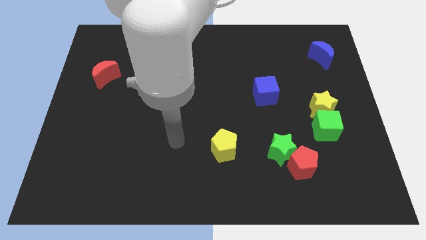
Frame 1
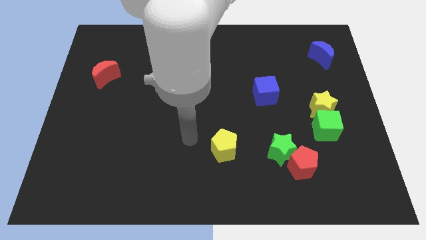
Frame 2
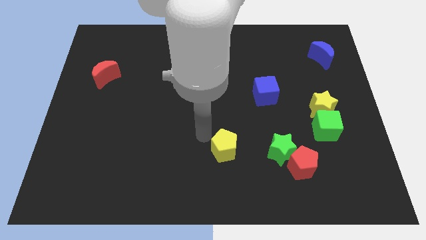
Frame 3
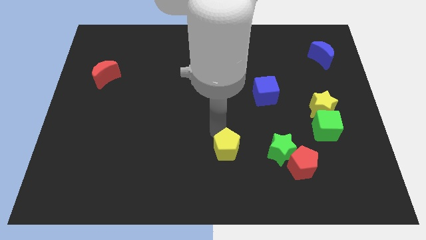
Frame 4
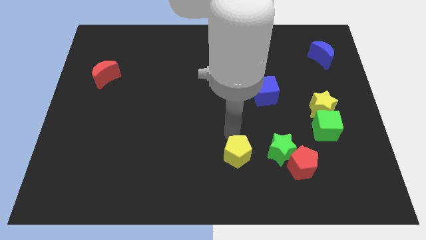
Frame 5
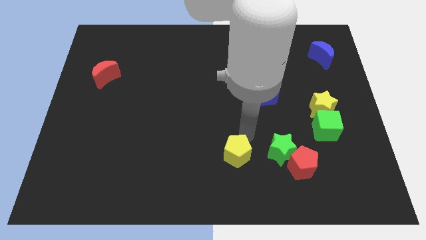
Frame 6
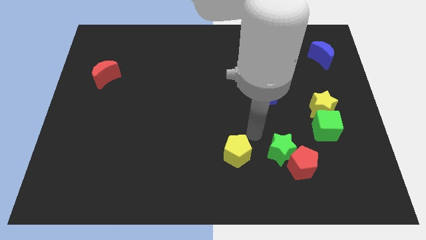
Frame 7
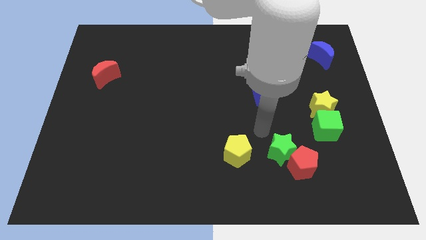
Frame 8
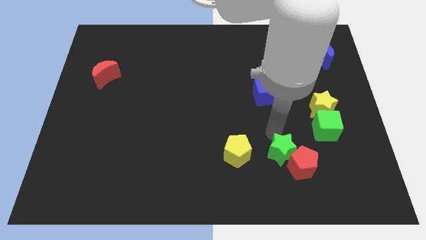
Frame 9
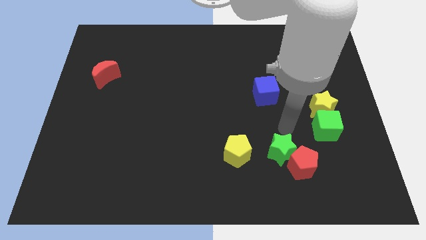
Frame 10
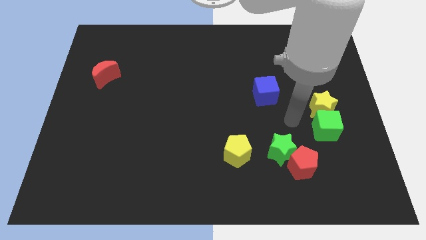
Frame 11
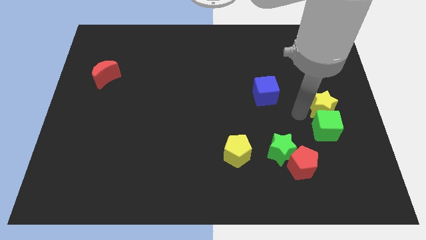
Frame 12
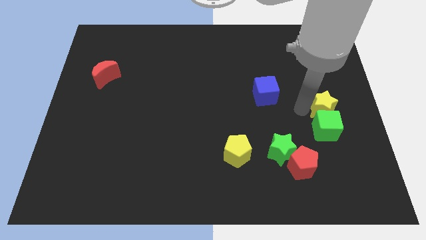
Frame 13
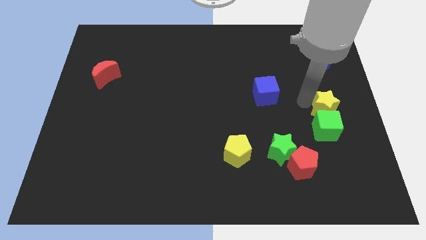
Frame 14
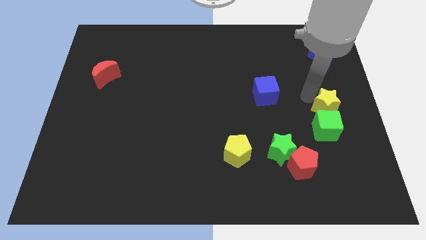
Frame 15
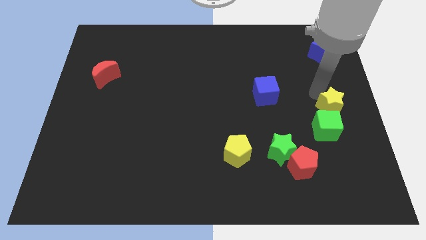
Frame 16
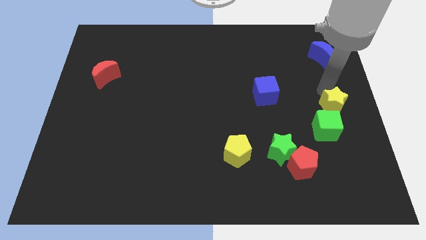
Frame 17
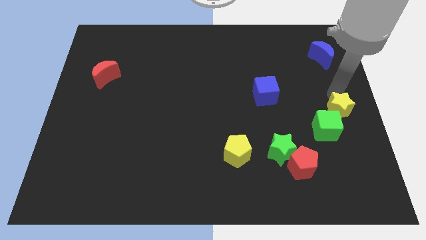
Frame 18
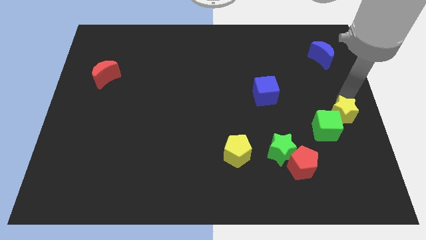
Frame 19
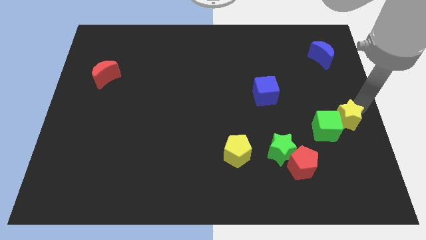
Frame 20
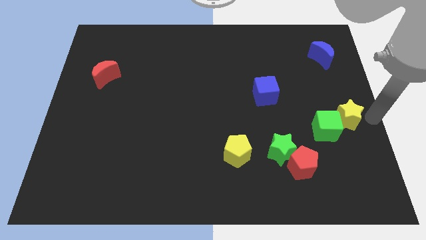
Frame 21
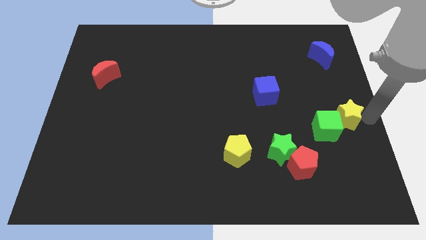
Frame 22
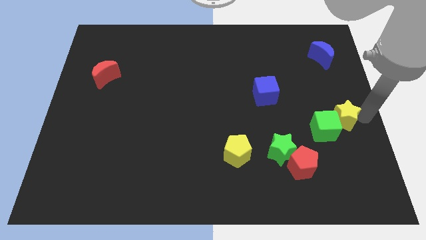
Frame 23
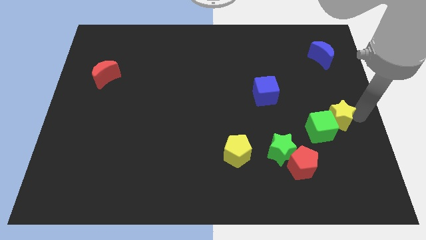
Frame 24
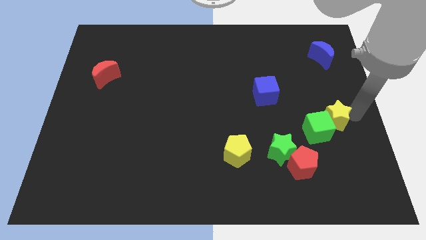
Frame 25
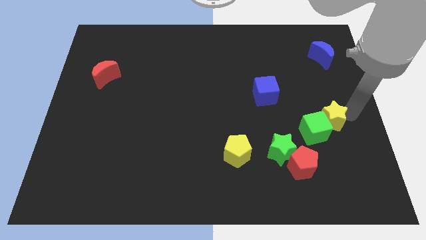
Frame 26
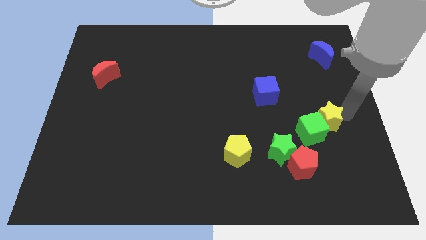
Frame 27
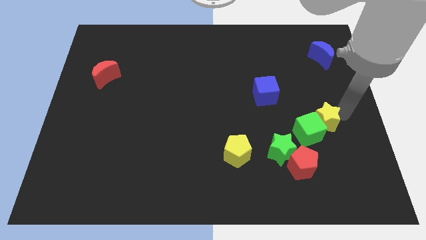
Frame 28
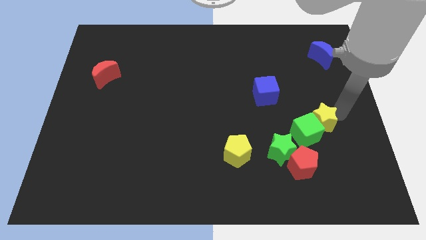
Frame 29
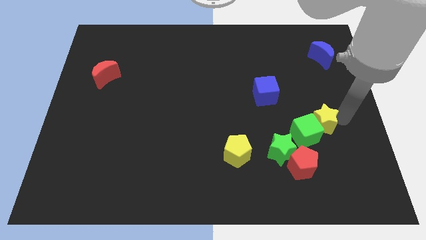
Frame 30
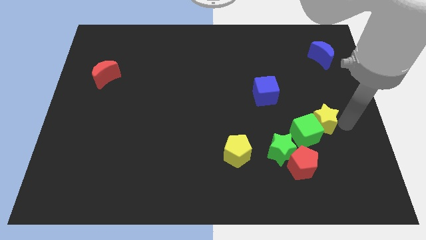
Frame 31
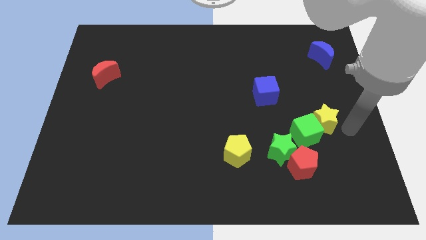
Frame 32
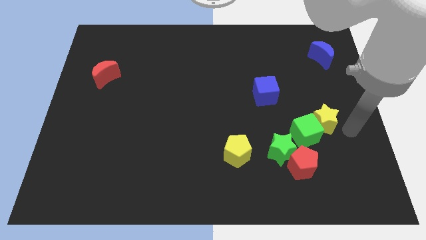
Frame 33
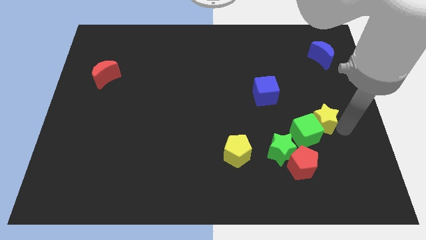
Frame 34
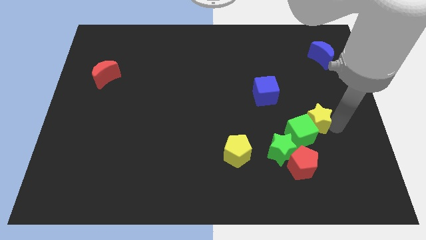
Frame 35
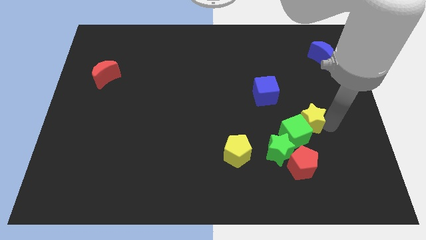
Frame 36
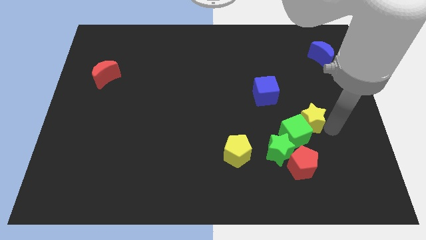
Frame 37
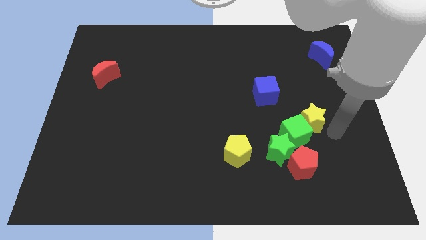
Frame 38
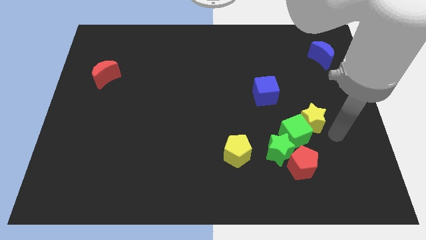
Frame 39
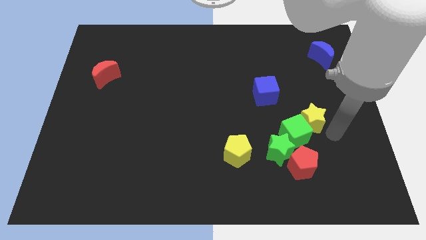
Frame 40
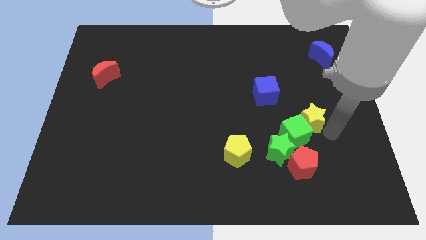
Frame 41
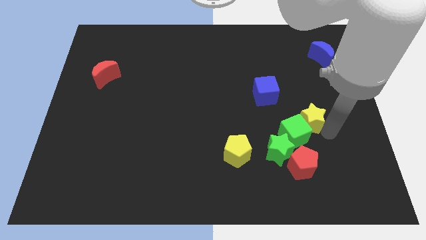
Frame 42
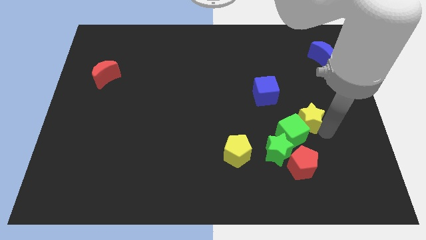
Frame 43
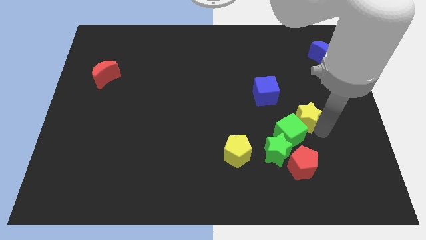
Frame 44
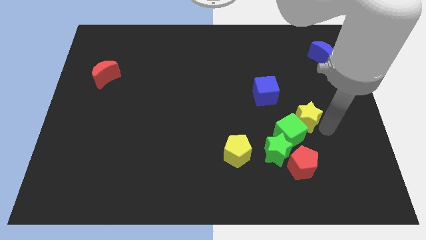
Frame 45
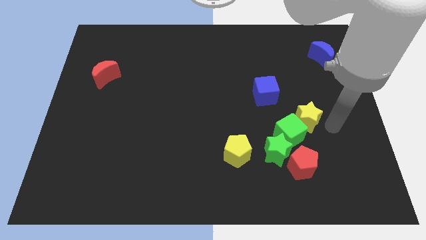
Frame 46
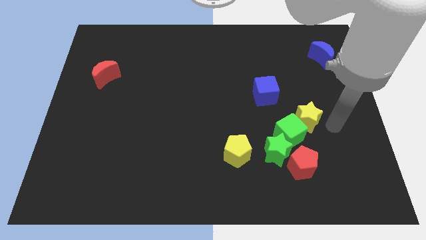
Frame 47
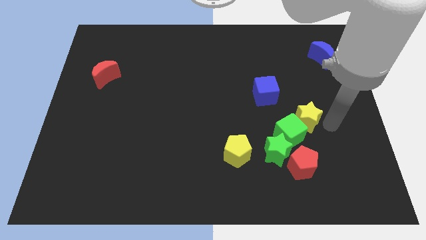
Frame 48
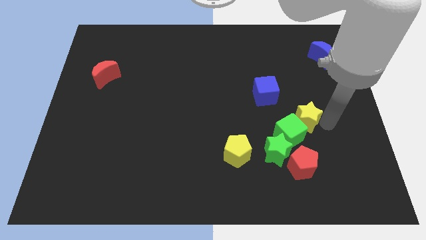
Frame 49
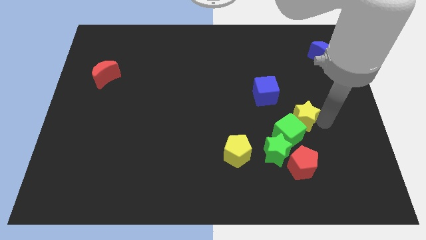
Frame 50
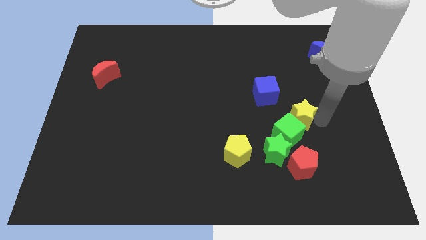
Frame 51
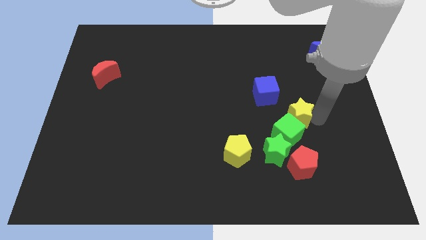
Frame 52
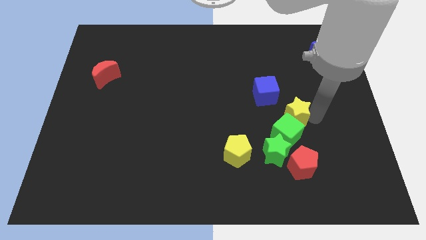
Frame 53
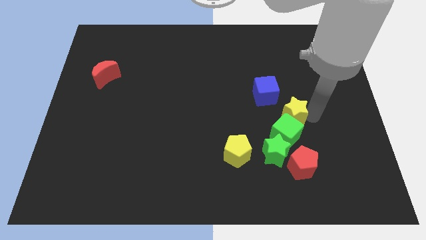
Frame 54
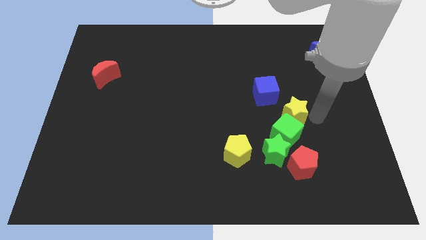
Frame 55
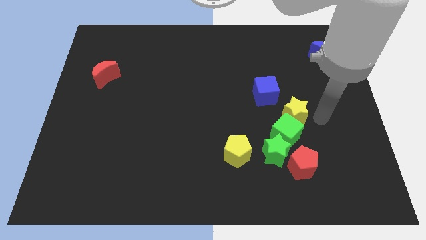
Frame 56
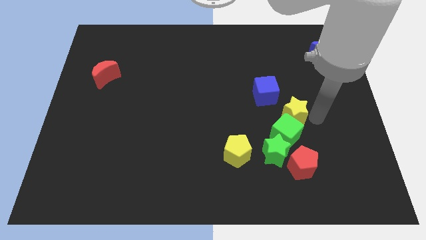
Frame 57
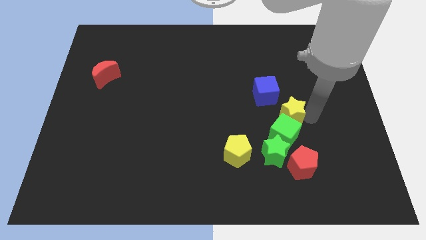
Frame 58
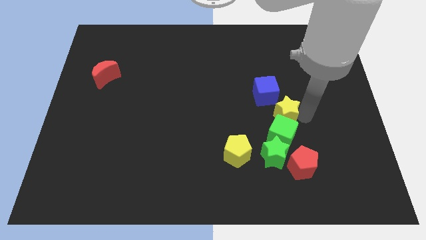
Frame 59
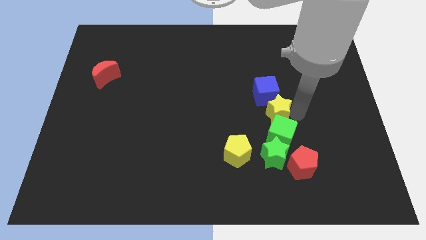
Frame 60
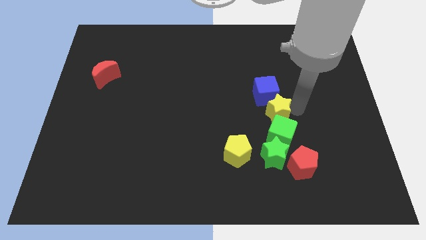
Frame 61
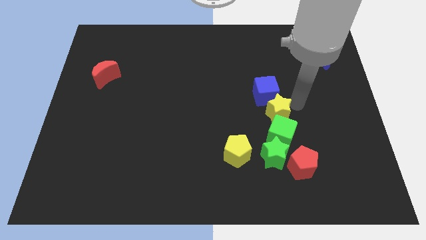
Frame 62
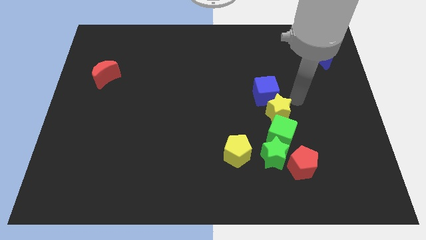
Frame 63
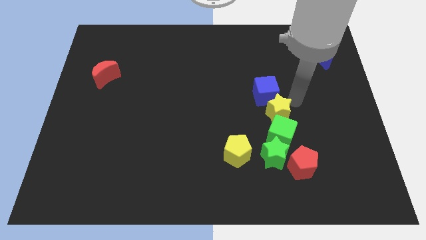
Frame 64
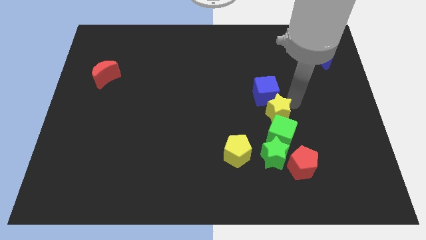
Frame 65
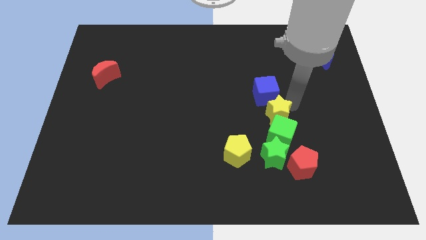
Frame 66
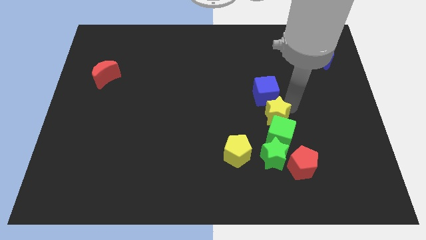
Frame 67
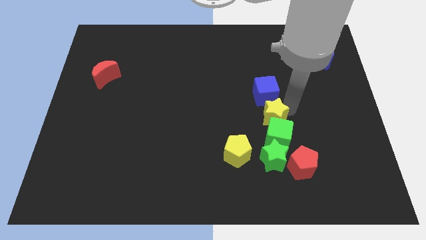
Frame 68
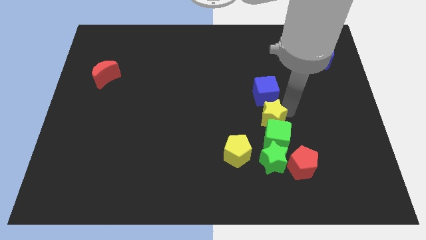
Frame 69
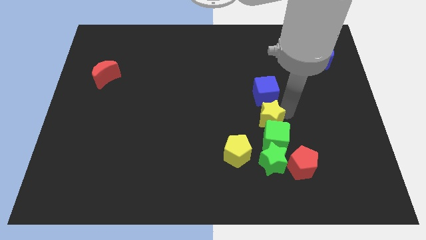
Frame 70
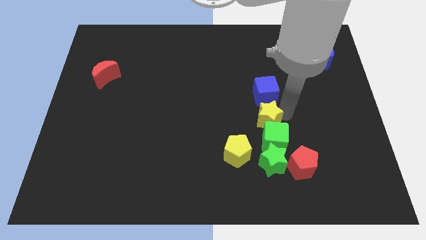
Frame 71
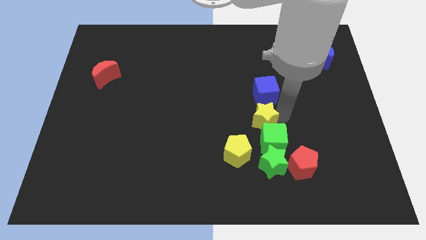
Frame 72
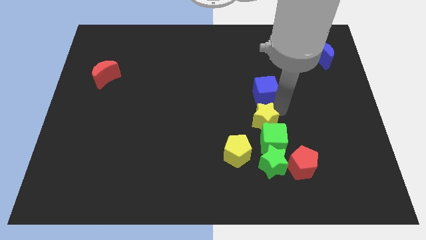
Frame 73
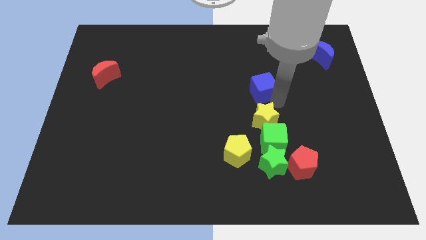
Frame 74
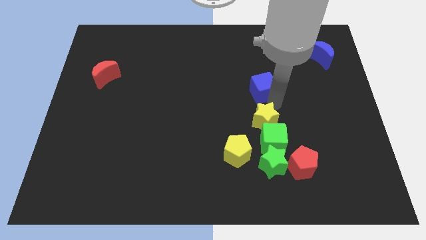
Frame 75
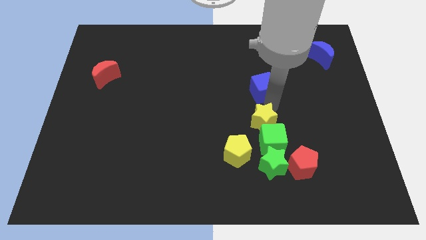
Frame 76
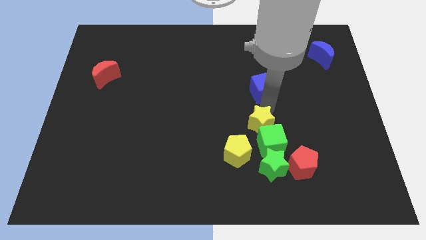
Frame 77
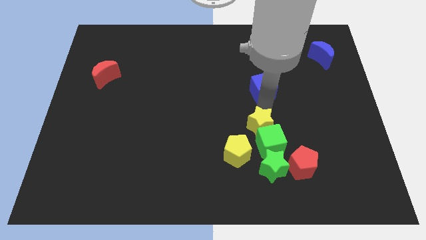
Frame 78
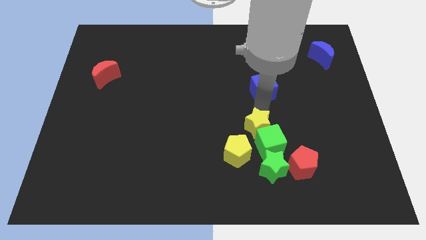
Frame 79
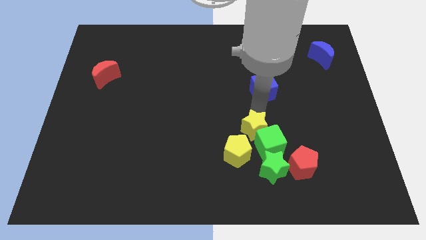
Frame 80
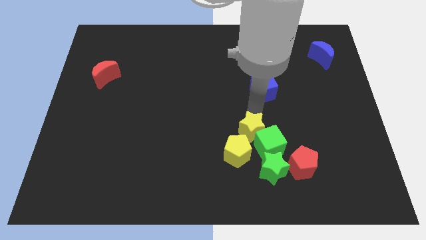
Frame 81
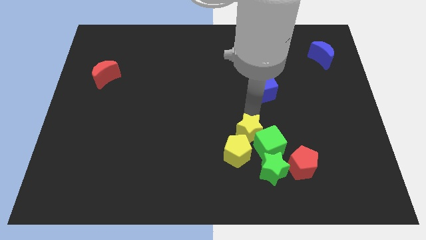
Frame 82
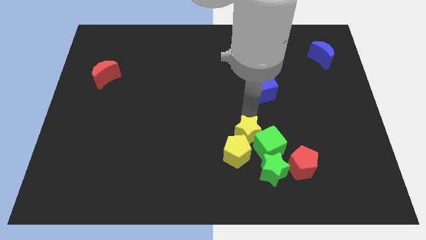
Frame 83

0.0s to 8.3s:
slide the yellow star close to the yellow pentagon
